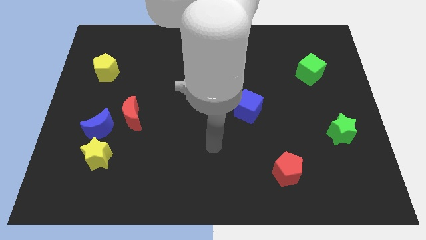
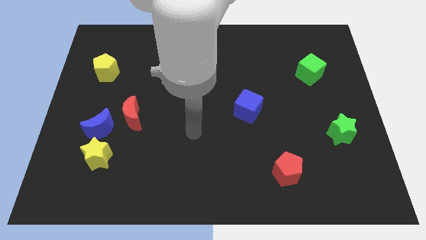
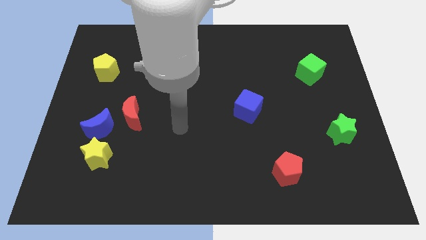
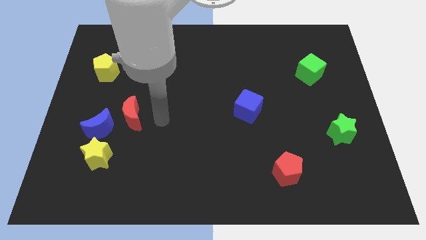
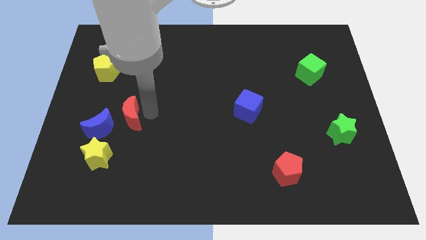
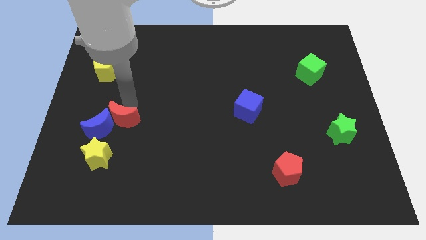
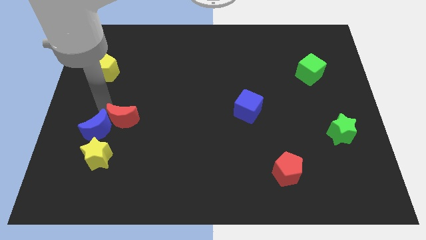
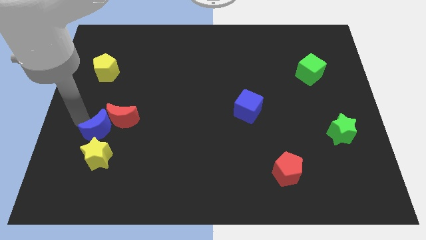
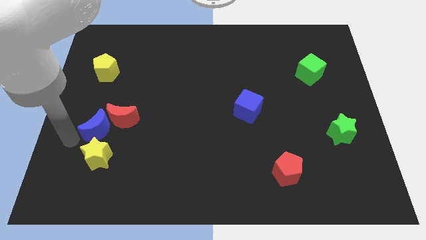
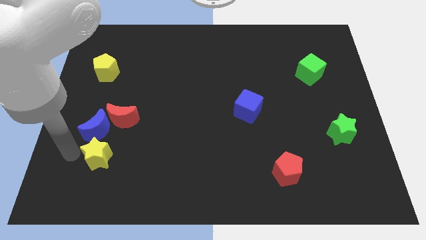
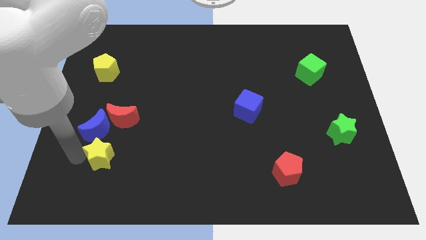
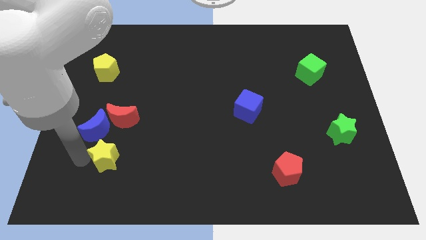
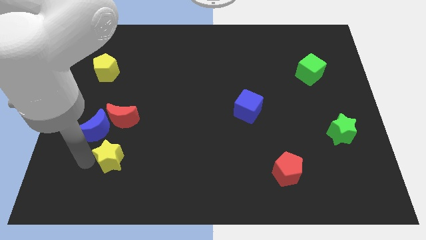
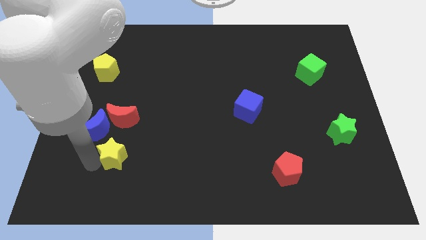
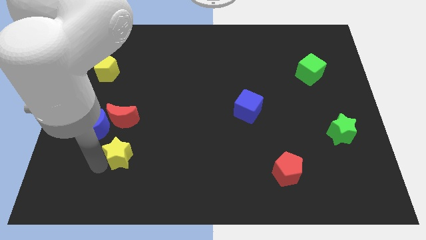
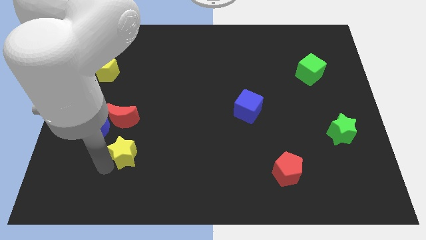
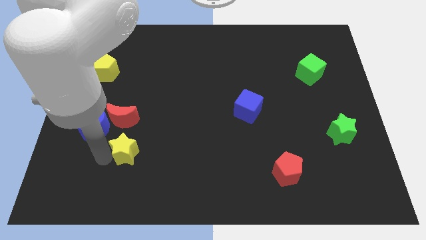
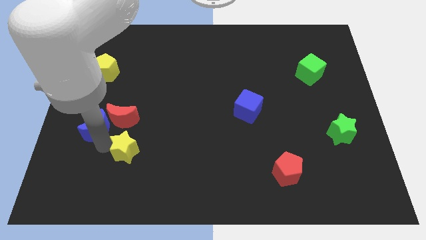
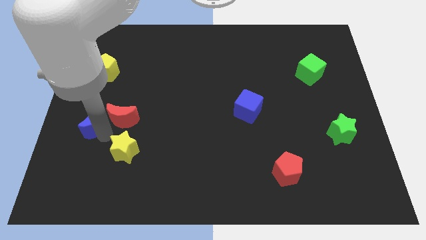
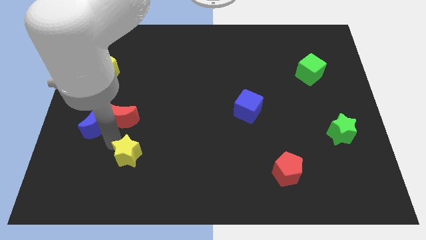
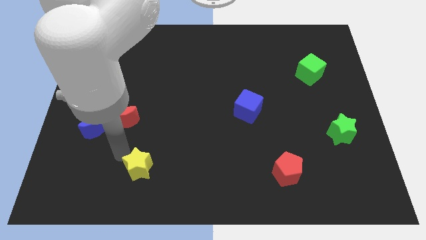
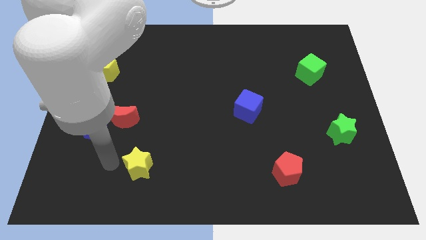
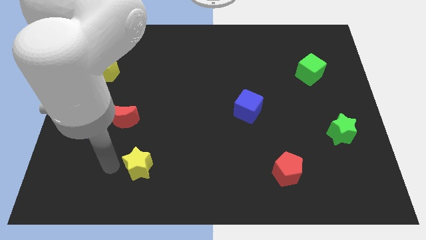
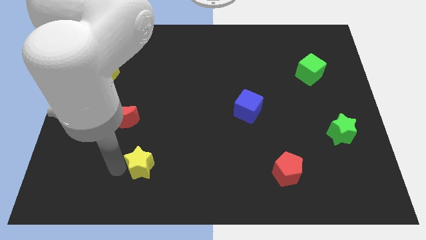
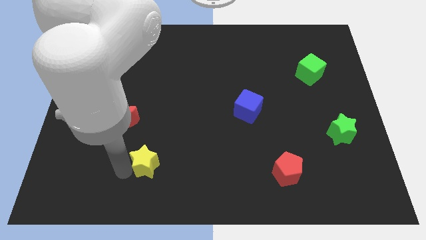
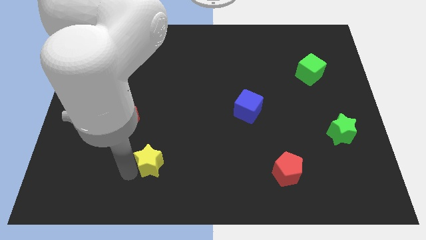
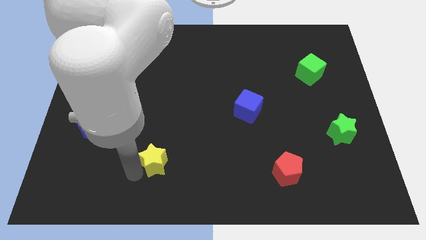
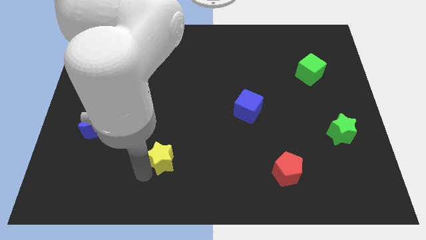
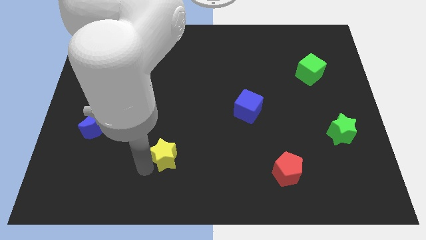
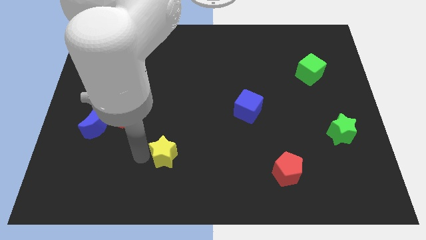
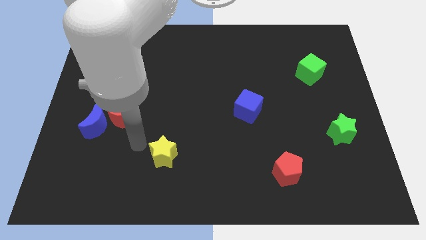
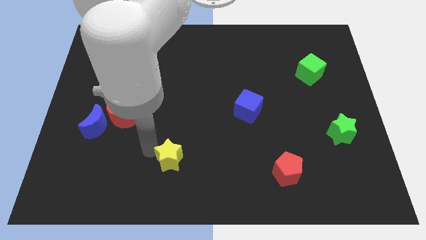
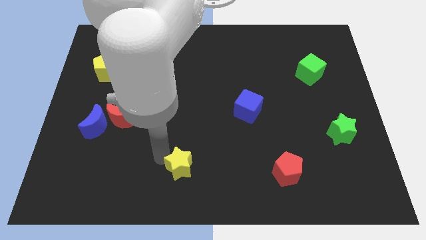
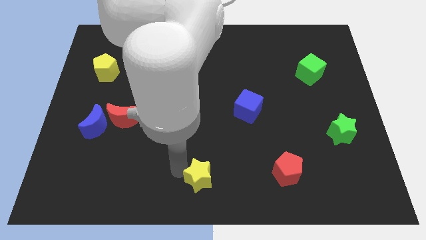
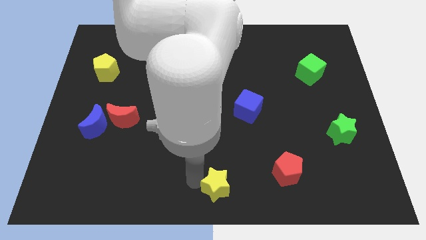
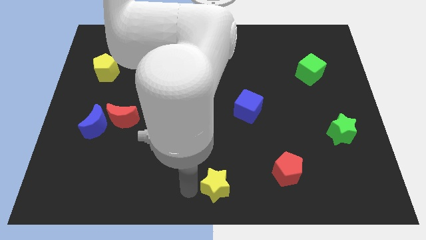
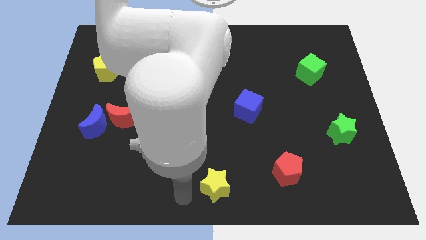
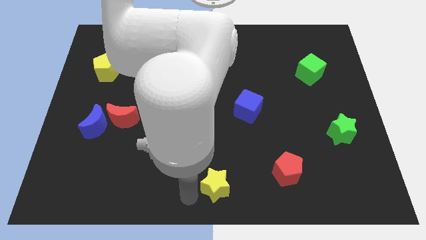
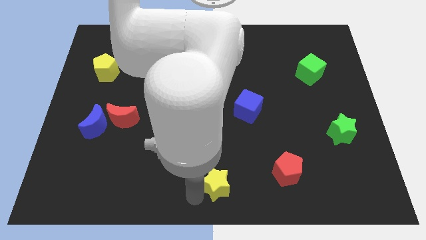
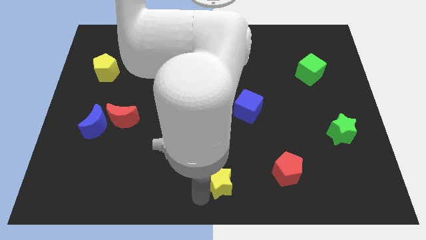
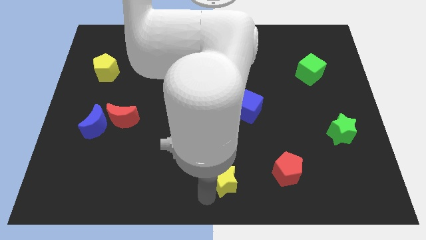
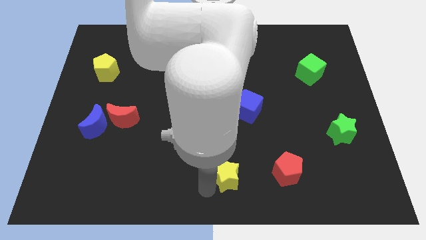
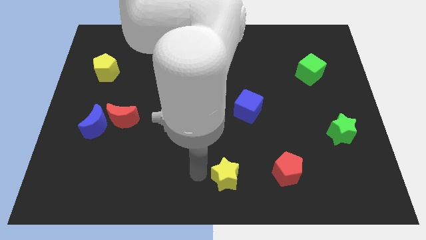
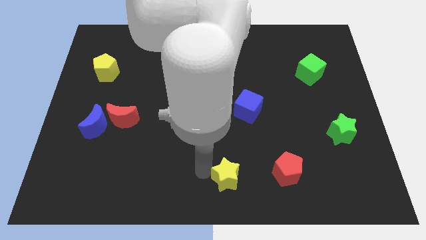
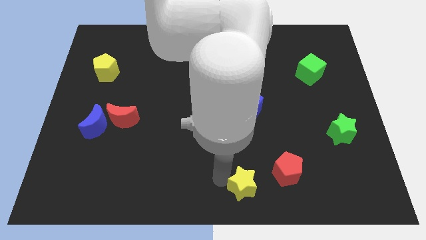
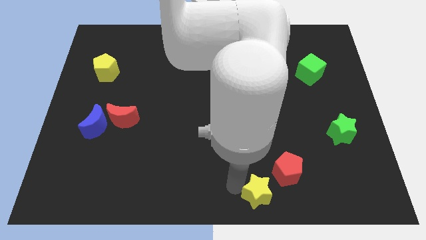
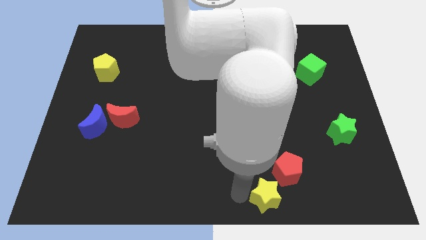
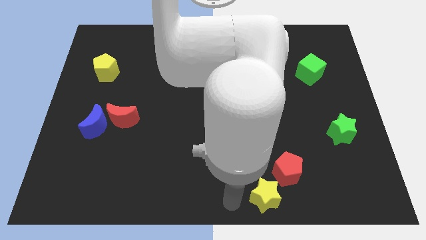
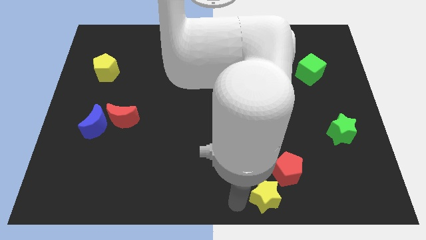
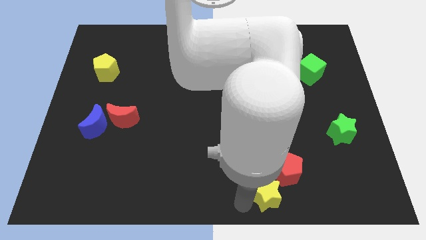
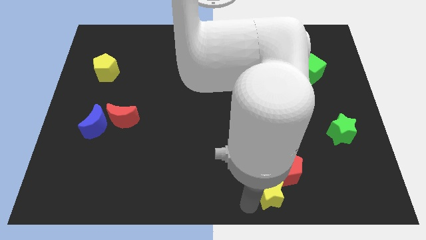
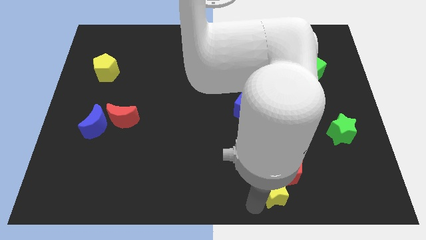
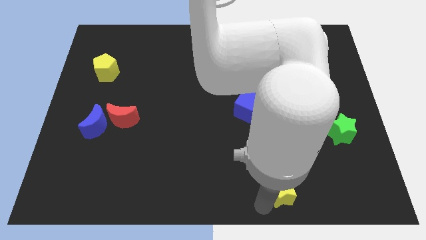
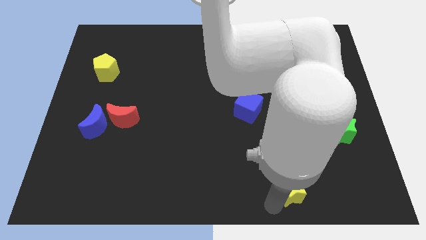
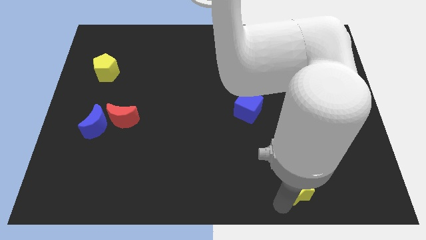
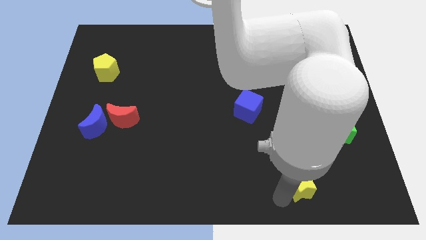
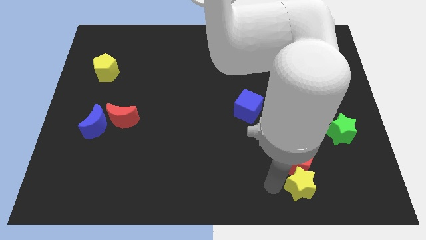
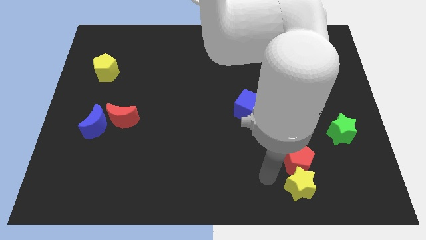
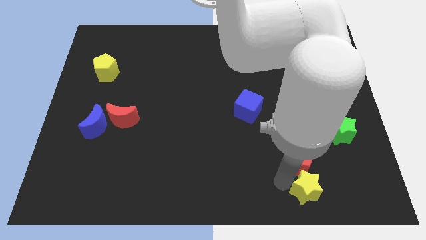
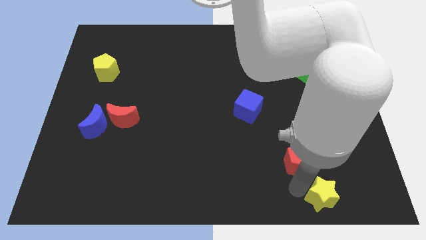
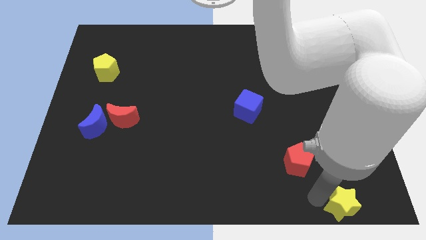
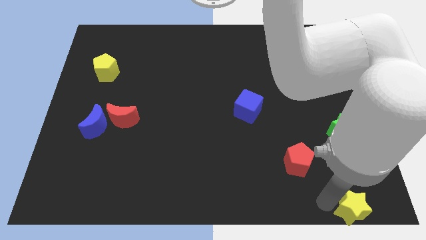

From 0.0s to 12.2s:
push the yellow star to the bottom right of the board
